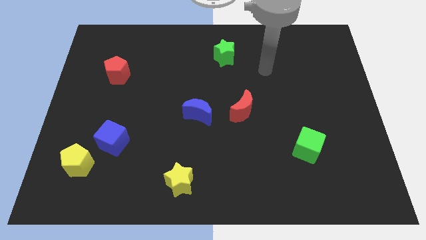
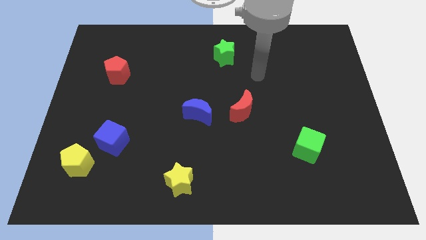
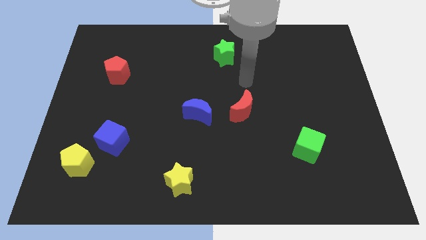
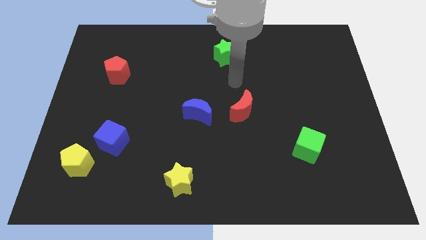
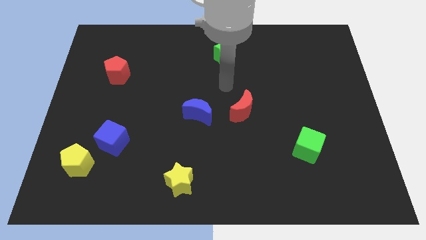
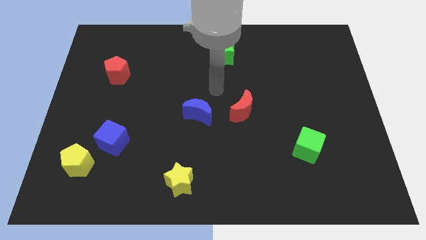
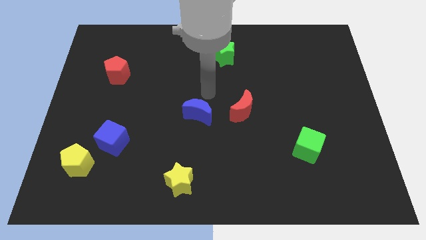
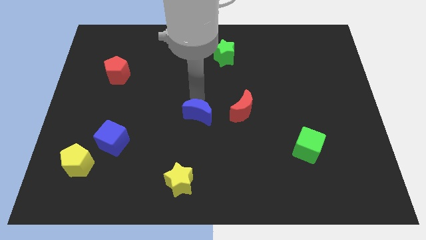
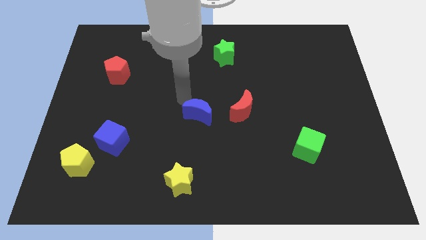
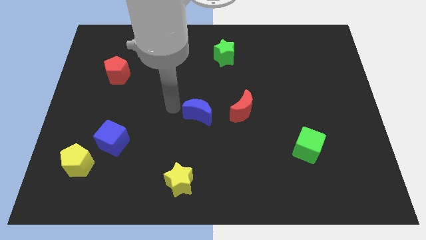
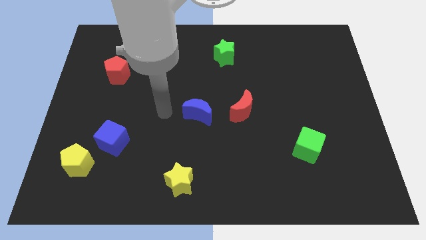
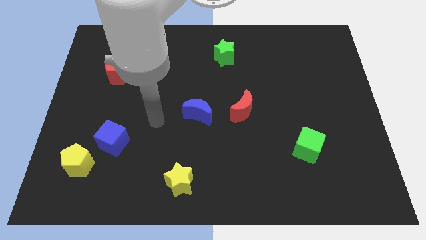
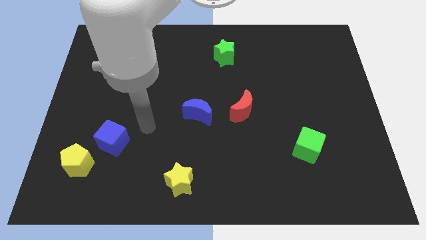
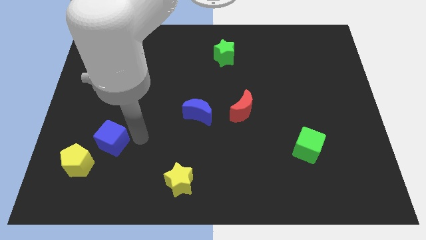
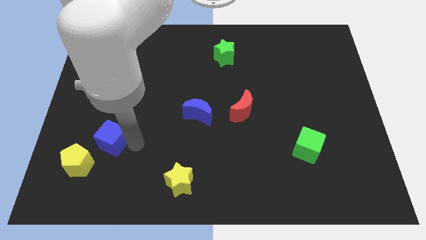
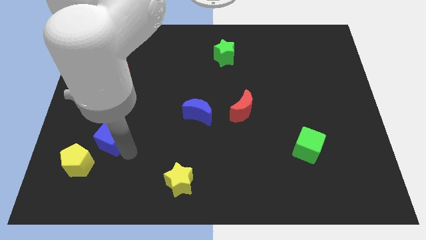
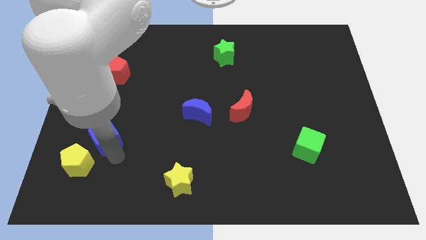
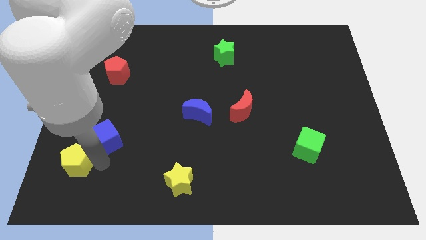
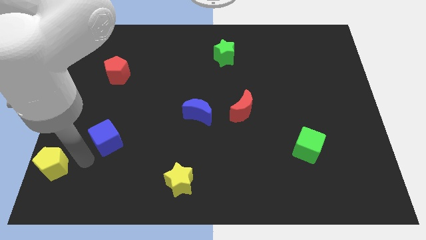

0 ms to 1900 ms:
move the blue cube away from the yellow pentagon

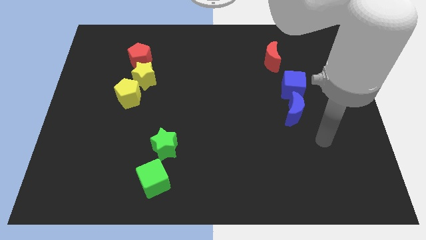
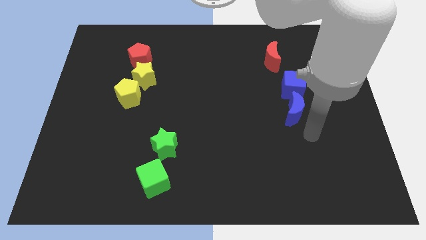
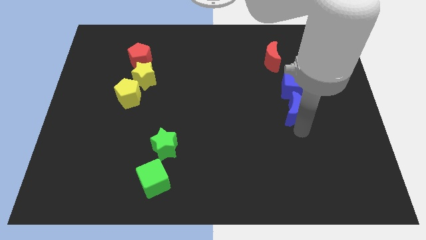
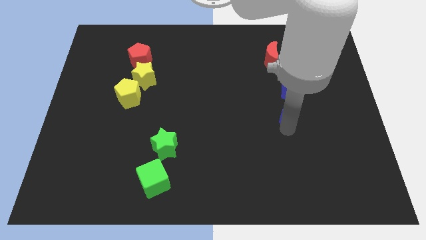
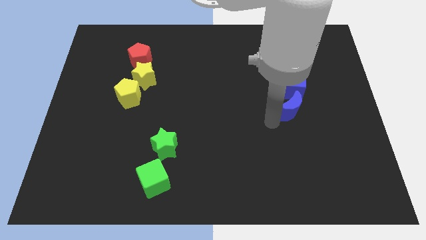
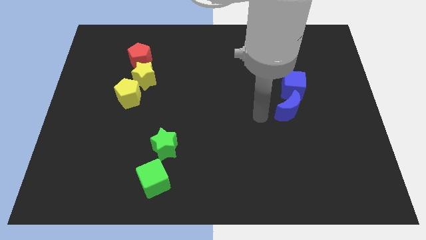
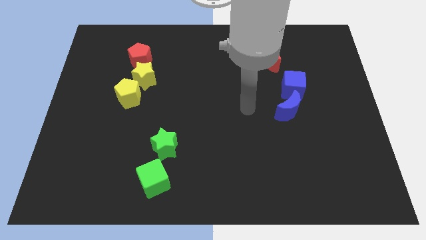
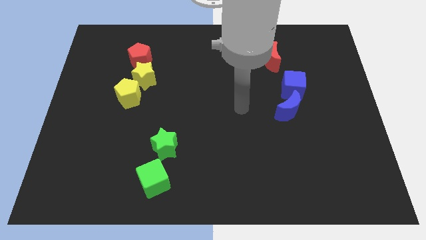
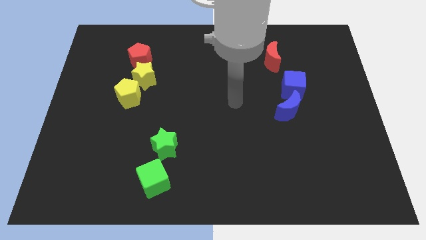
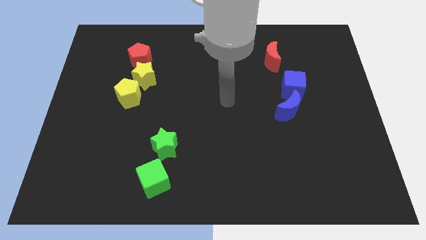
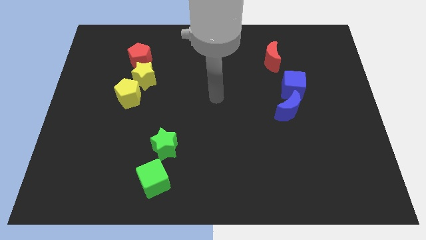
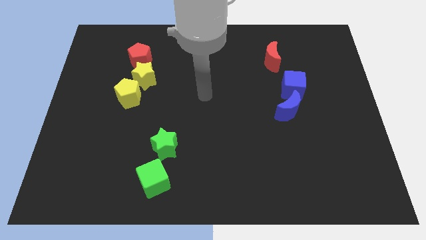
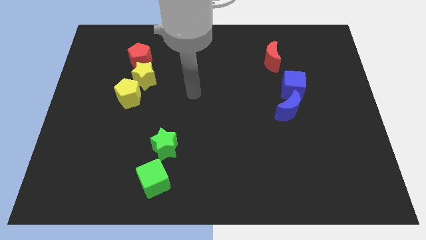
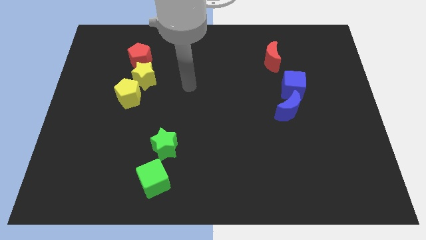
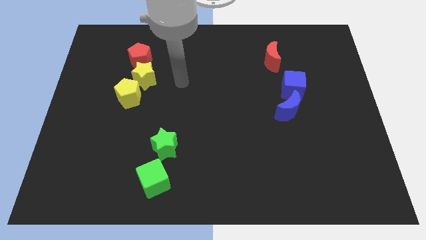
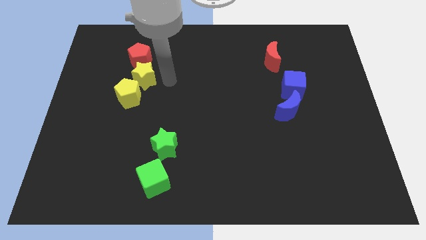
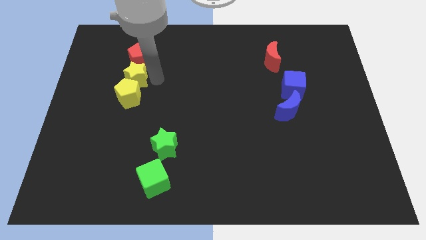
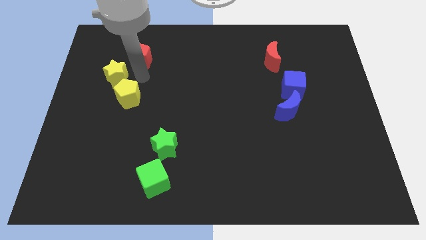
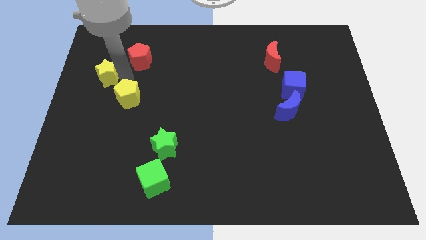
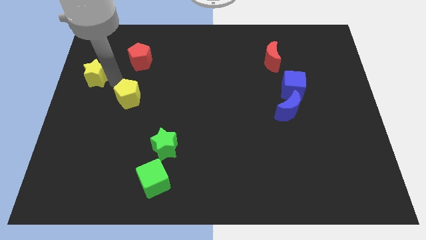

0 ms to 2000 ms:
pull the yellow pentagon apart from the yellow star

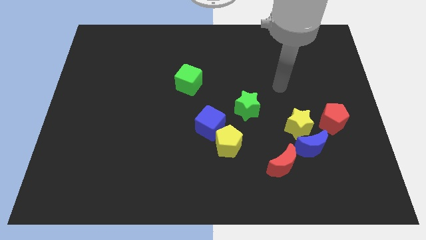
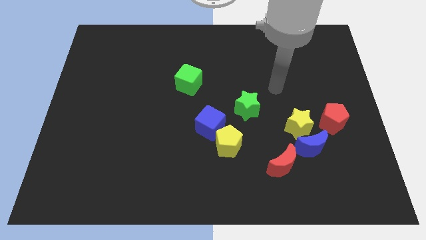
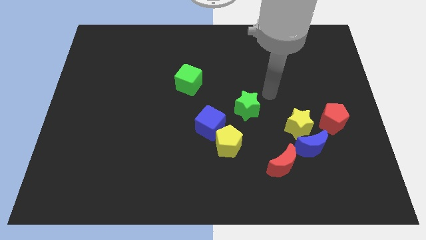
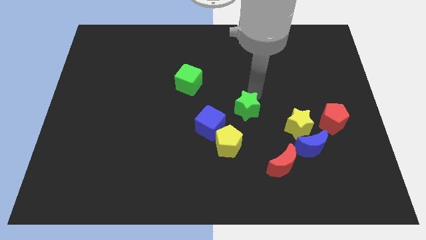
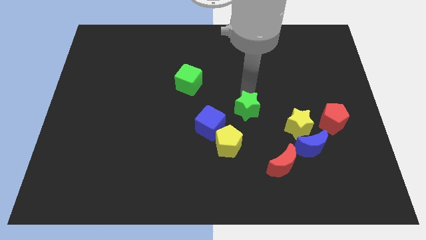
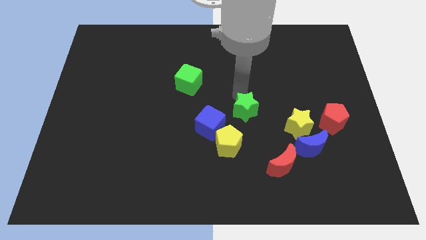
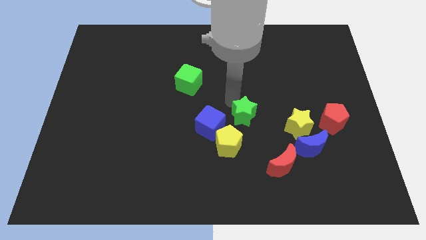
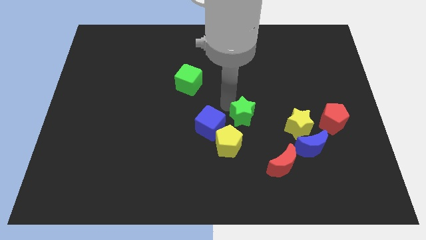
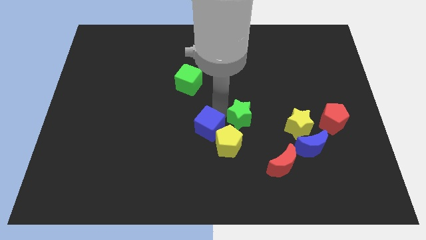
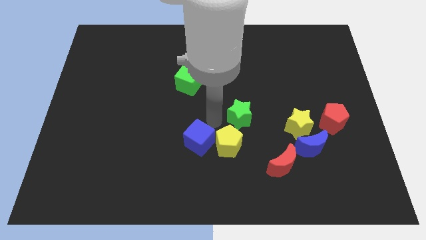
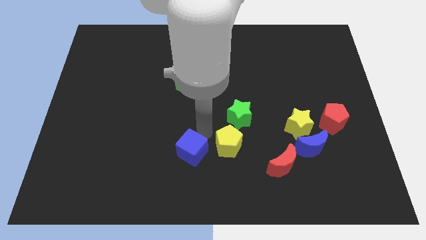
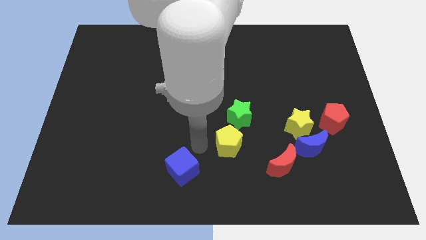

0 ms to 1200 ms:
separate the yellow pentagon from the blue cube

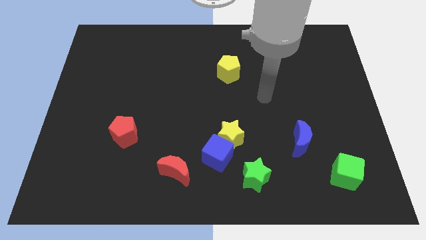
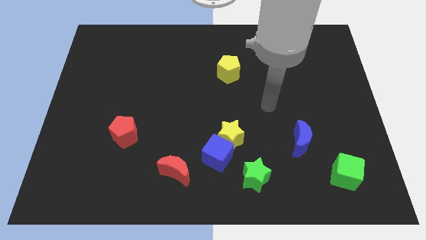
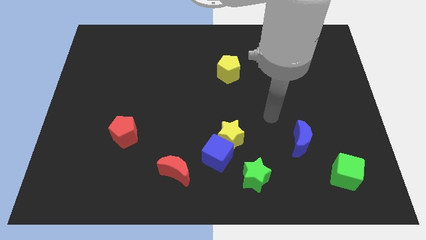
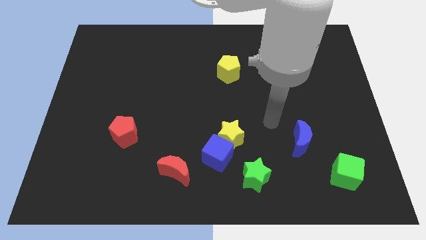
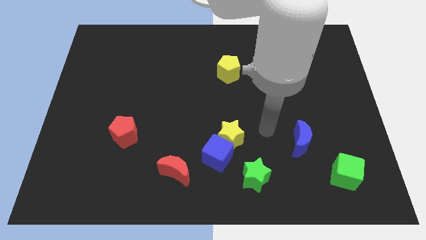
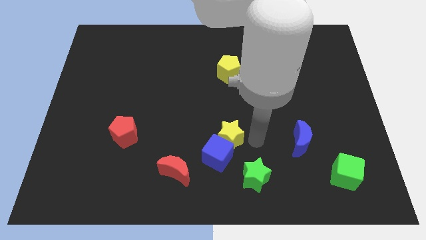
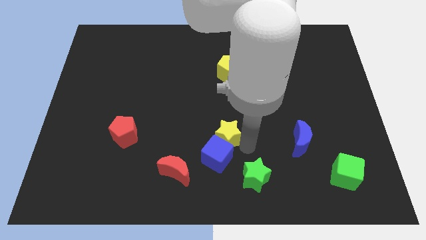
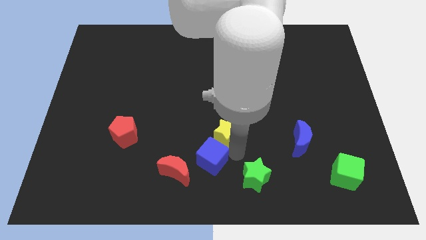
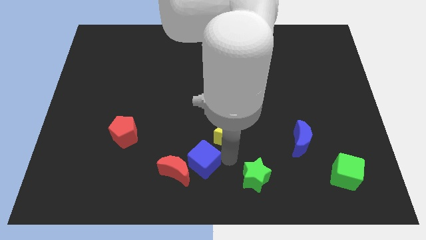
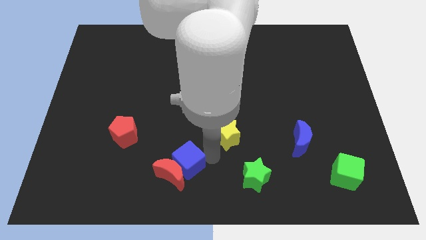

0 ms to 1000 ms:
separate the yellow star from the blue cube

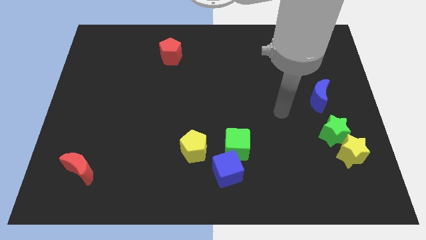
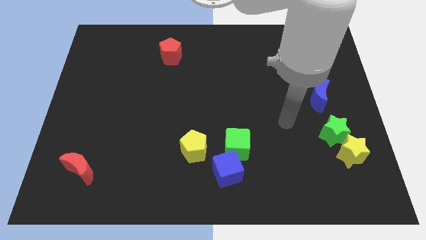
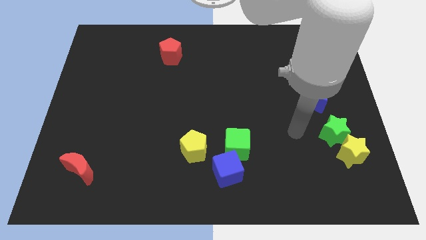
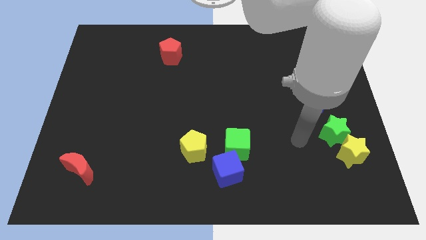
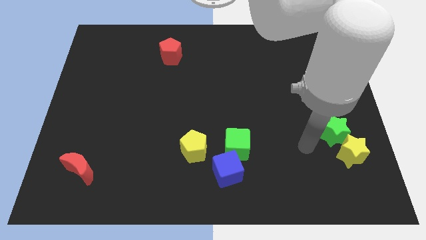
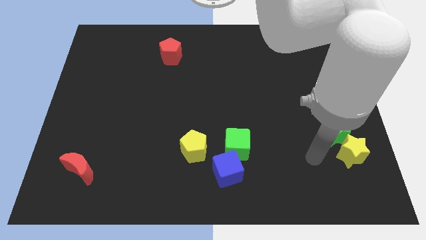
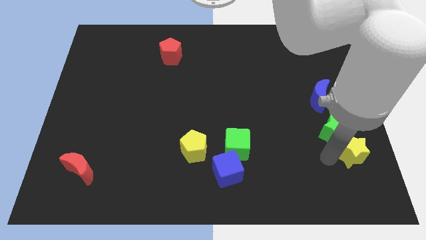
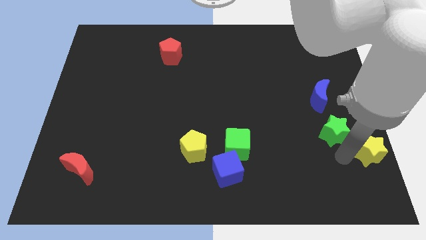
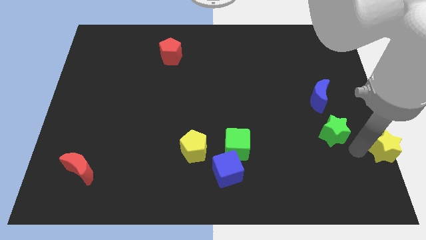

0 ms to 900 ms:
separate the green star from the yellow star

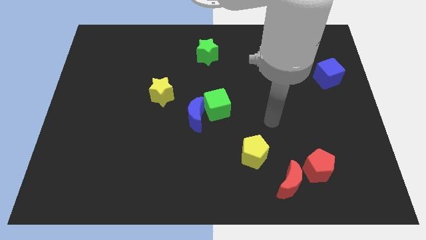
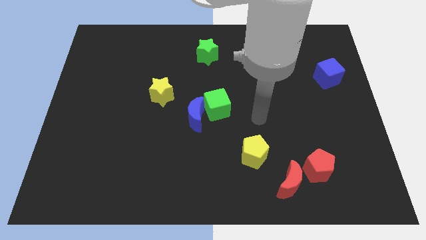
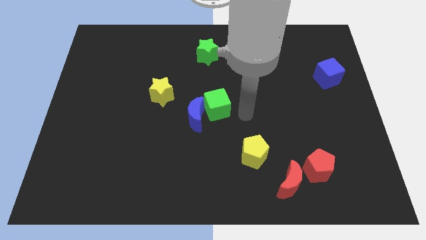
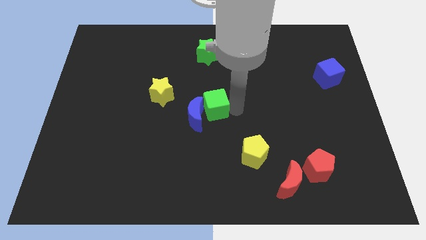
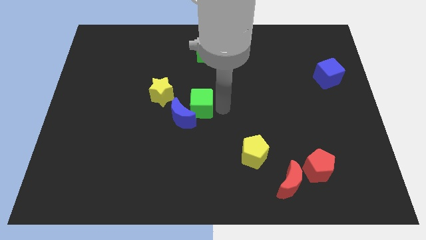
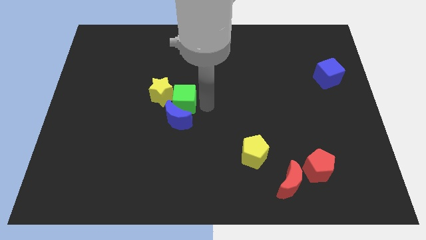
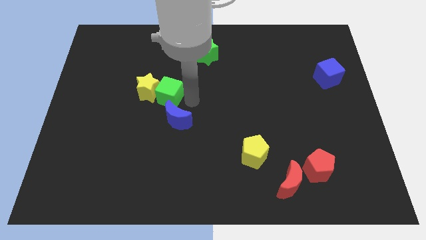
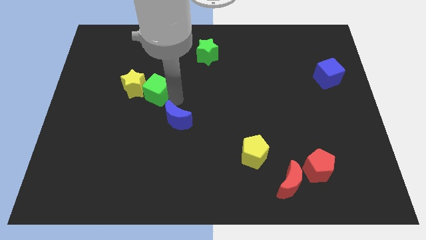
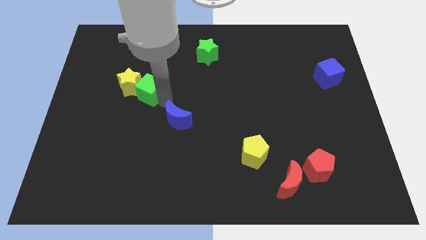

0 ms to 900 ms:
move the blue moon away from the green cube

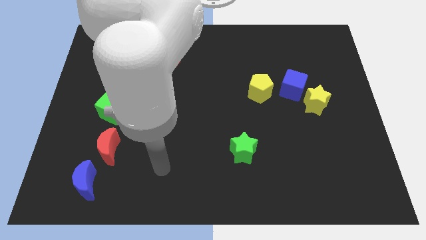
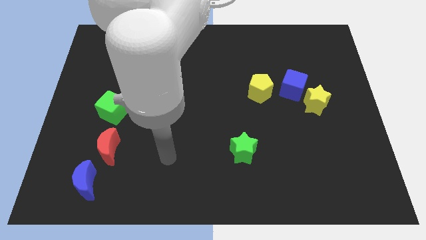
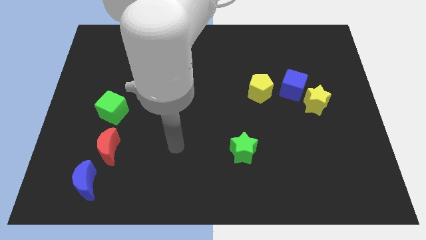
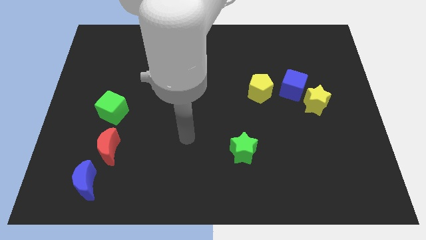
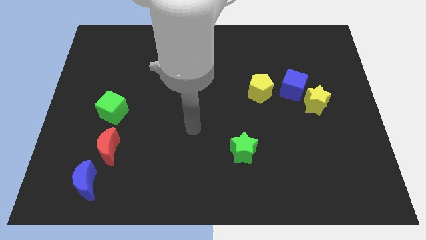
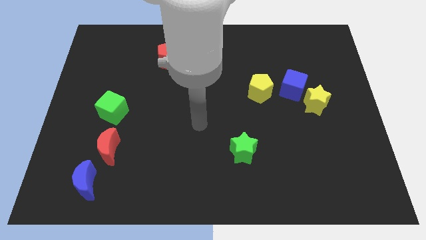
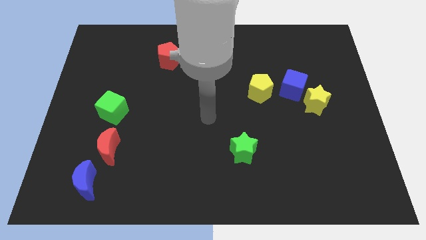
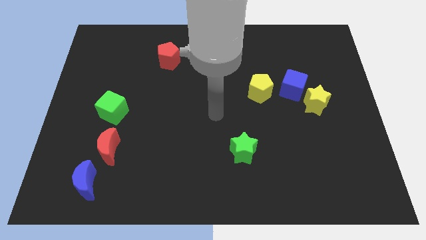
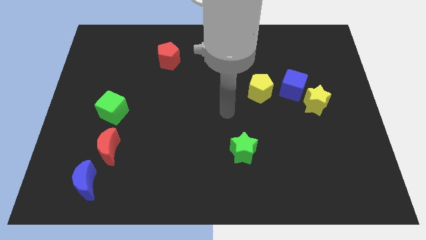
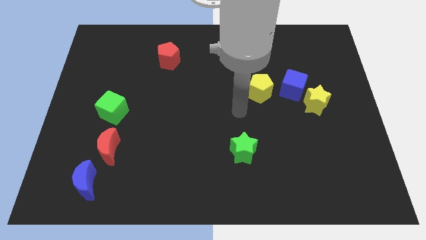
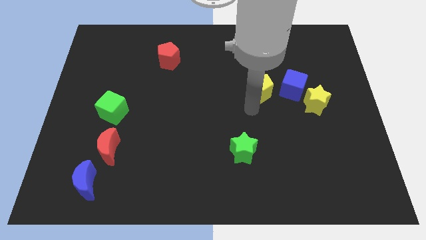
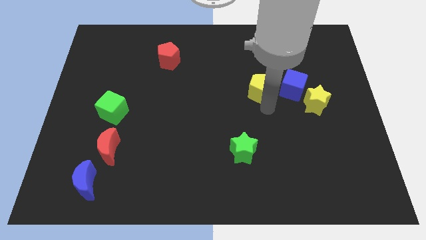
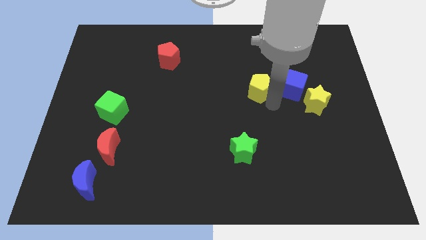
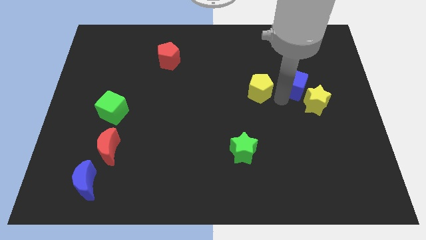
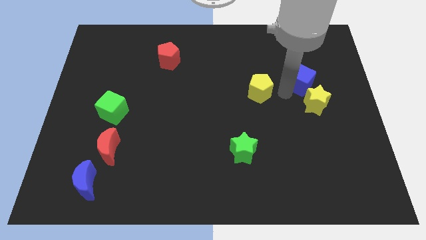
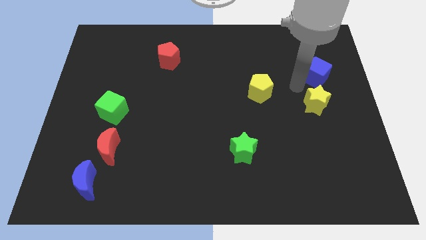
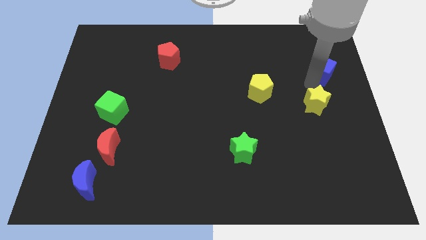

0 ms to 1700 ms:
move the yellow star away from the blue cube
